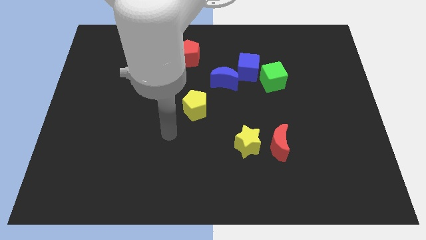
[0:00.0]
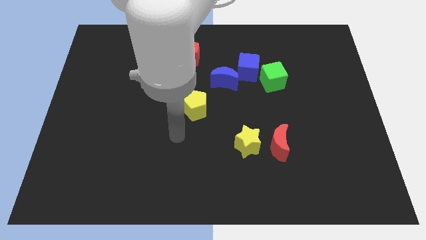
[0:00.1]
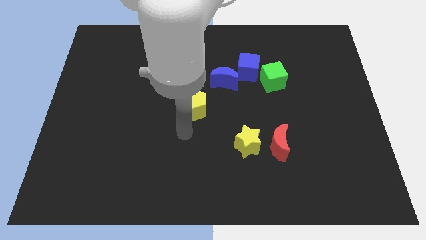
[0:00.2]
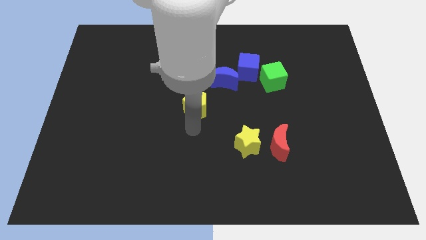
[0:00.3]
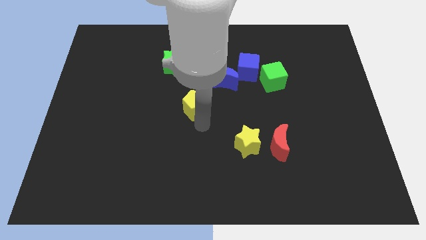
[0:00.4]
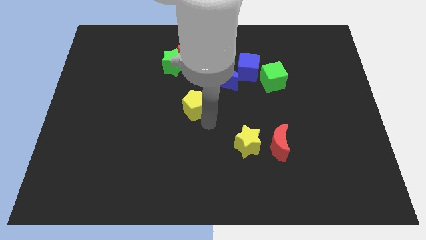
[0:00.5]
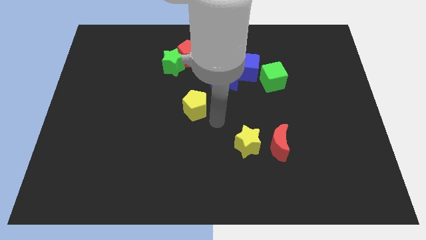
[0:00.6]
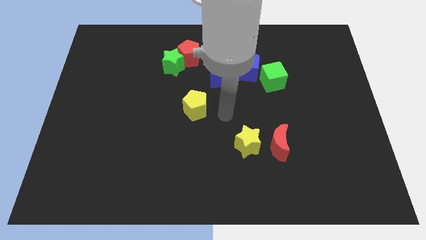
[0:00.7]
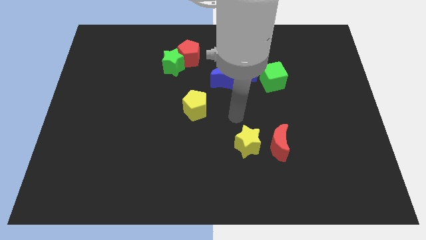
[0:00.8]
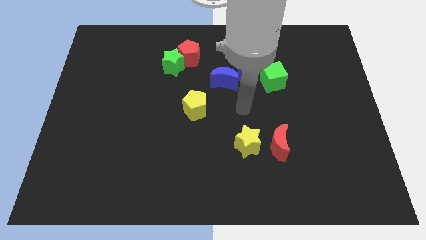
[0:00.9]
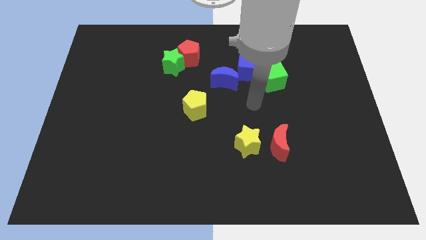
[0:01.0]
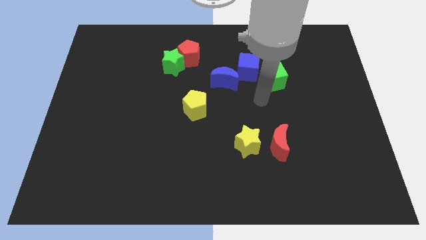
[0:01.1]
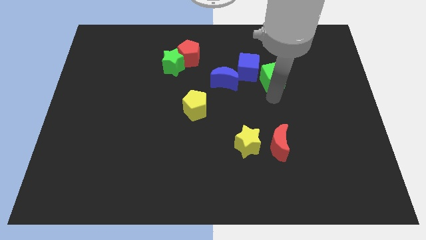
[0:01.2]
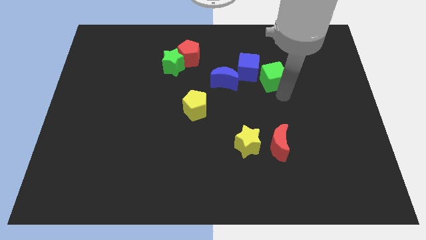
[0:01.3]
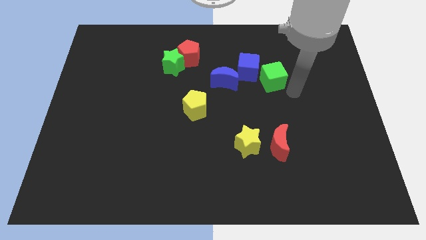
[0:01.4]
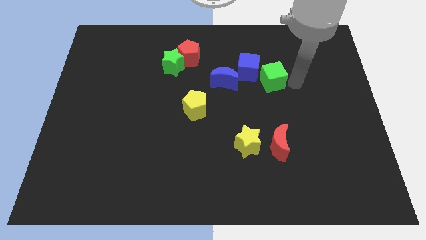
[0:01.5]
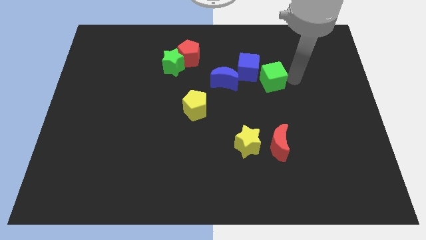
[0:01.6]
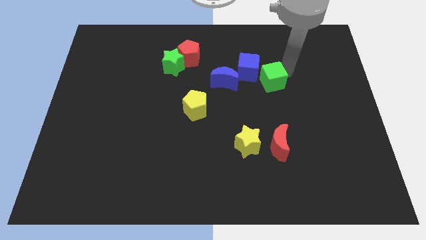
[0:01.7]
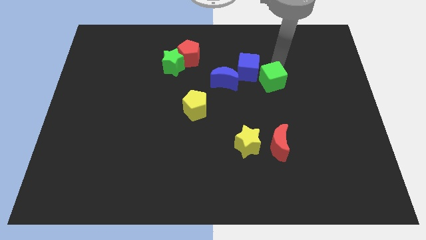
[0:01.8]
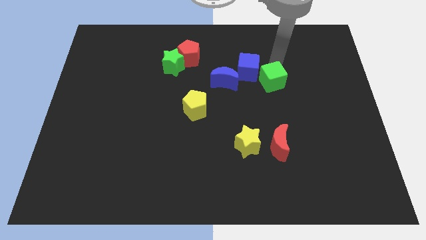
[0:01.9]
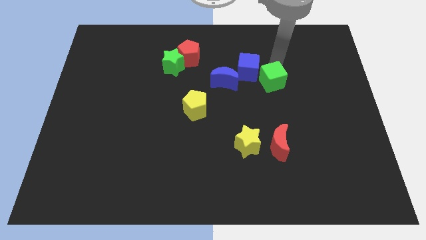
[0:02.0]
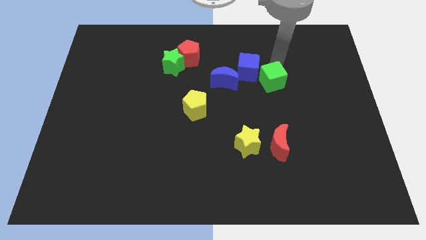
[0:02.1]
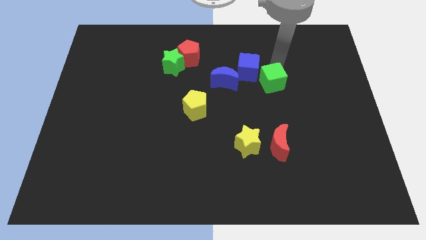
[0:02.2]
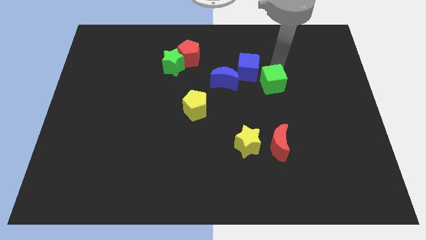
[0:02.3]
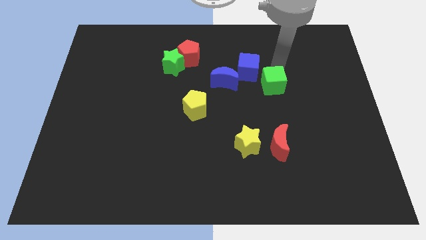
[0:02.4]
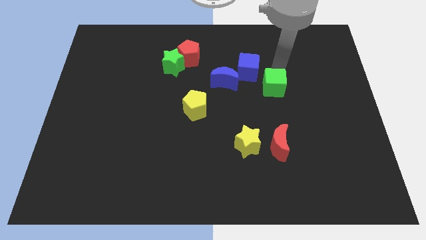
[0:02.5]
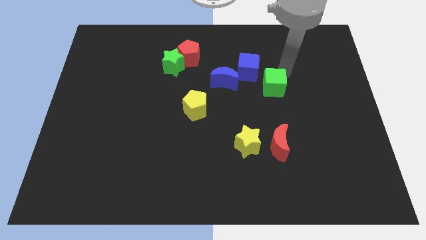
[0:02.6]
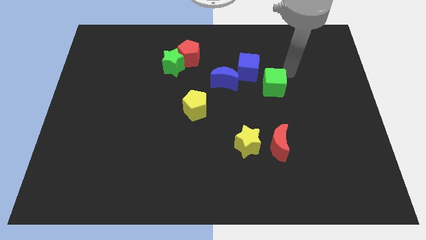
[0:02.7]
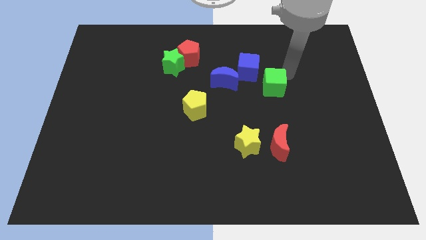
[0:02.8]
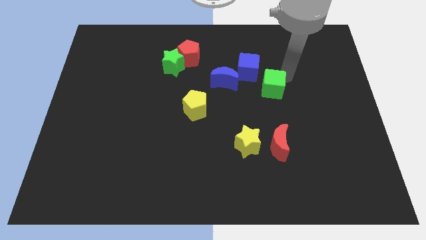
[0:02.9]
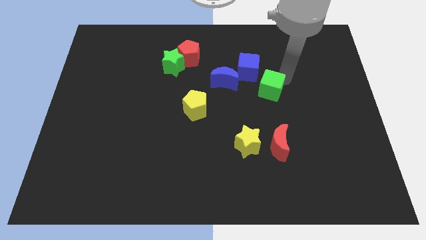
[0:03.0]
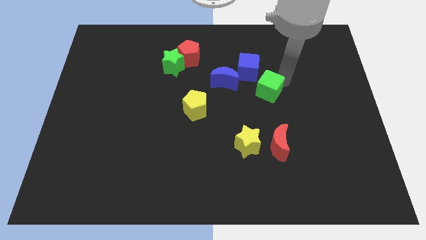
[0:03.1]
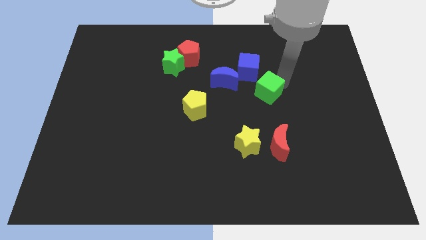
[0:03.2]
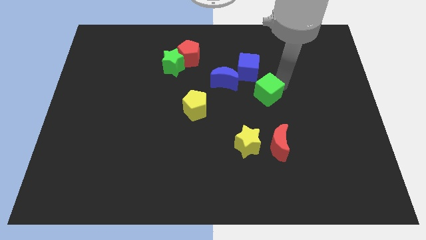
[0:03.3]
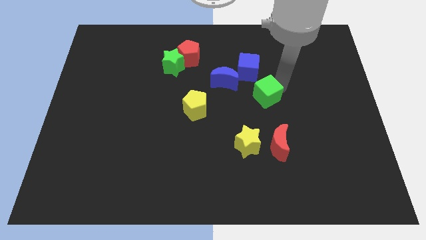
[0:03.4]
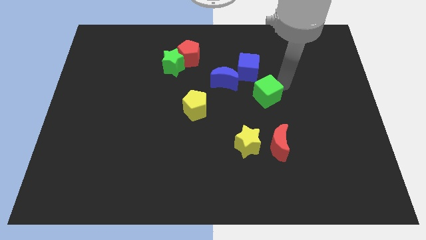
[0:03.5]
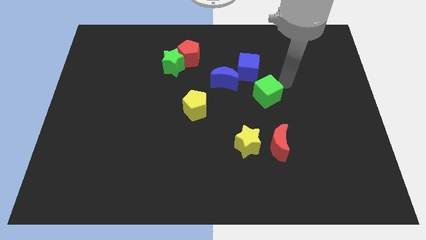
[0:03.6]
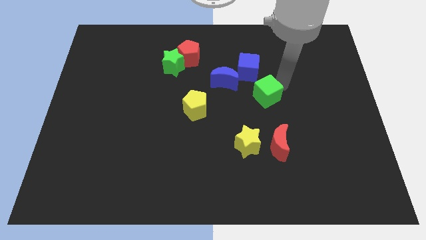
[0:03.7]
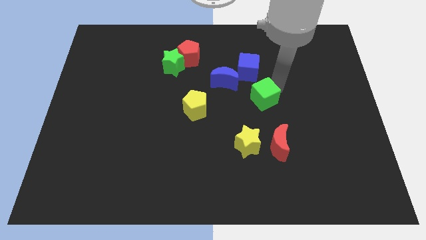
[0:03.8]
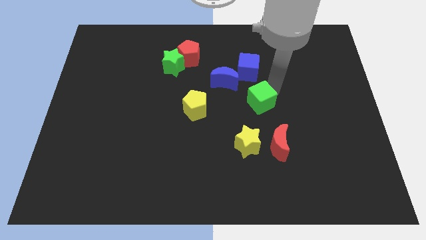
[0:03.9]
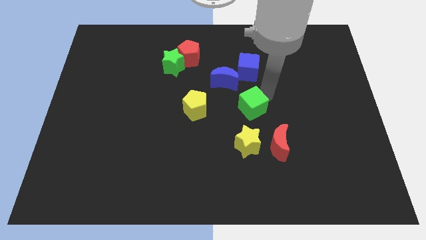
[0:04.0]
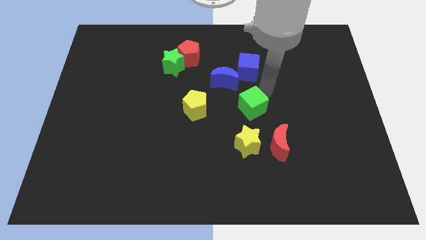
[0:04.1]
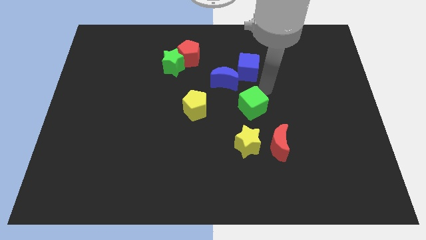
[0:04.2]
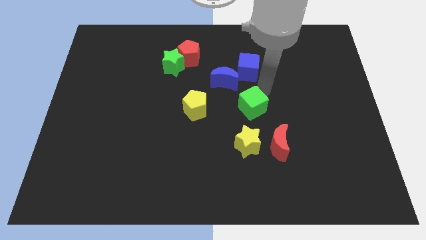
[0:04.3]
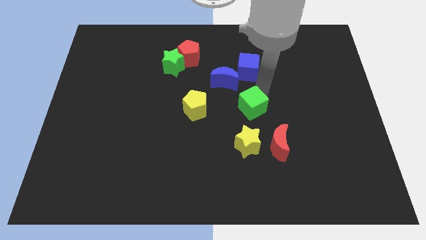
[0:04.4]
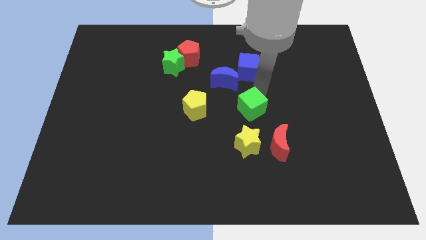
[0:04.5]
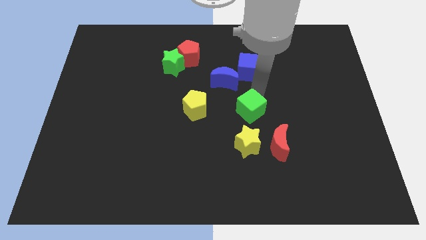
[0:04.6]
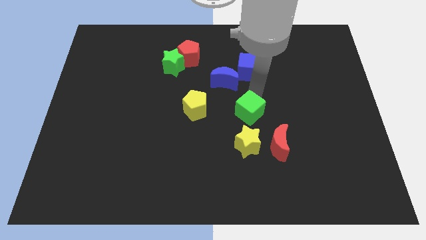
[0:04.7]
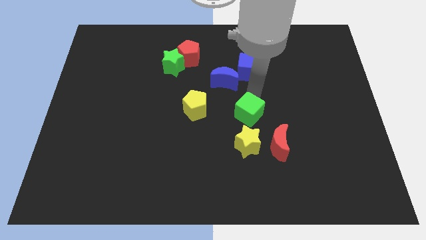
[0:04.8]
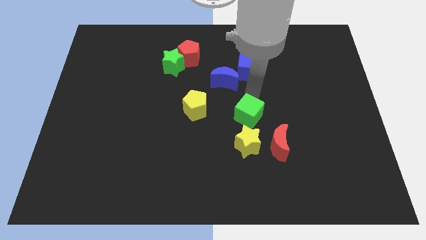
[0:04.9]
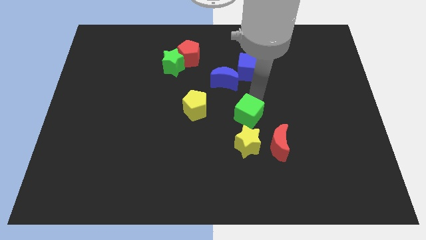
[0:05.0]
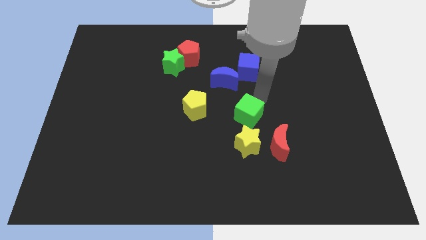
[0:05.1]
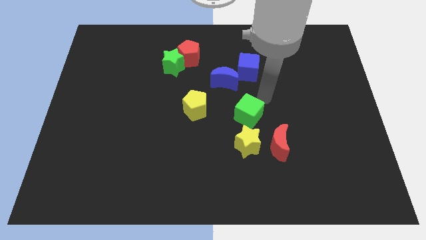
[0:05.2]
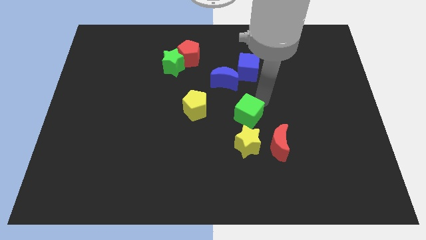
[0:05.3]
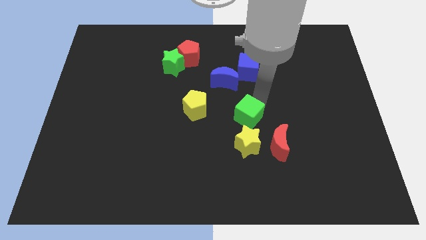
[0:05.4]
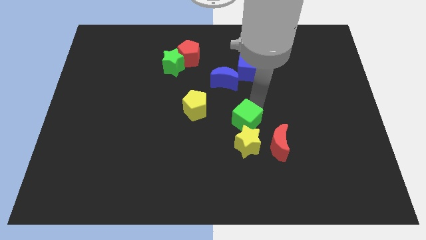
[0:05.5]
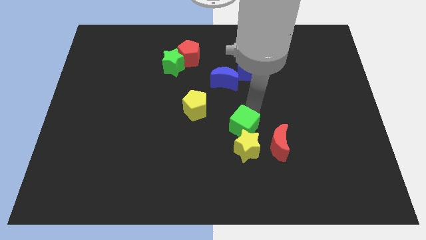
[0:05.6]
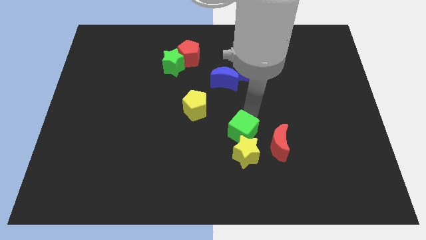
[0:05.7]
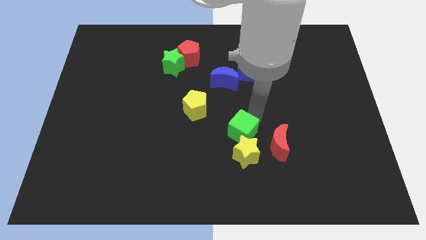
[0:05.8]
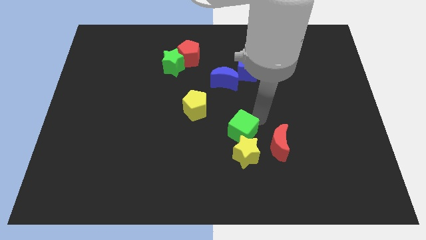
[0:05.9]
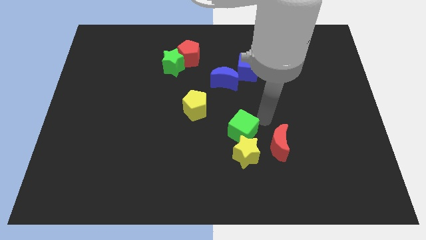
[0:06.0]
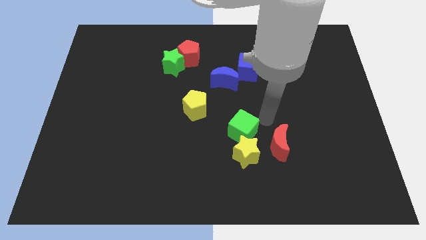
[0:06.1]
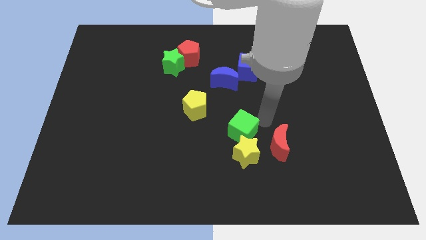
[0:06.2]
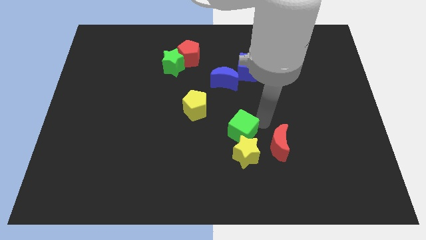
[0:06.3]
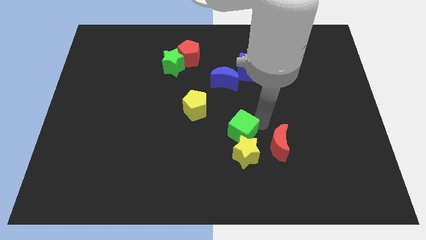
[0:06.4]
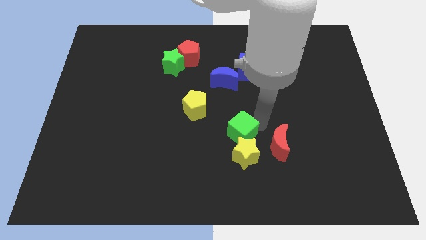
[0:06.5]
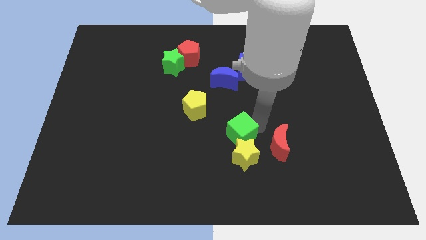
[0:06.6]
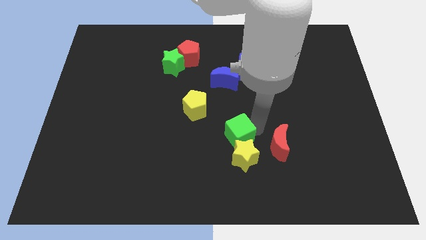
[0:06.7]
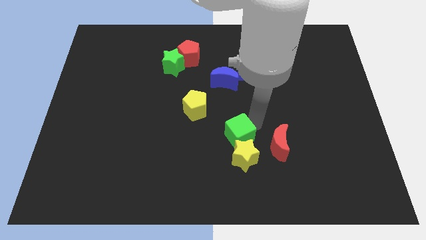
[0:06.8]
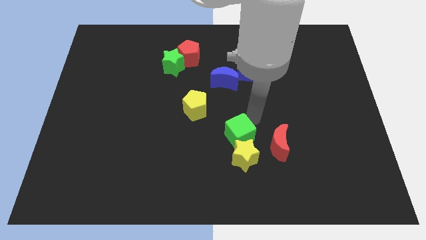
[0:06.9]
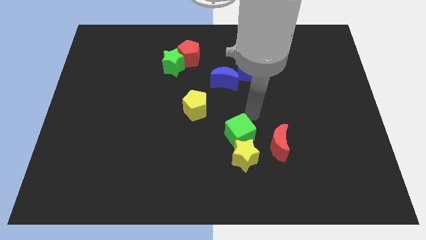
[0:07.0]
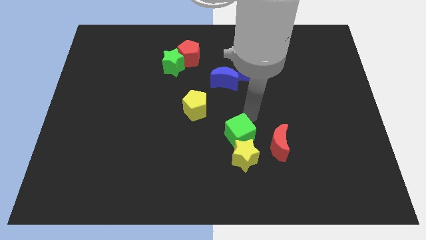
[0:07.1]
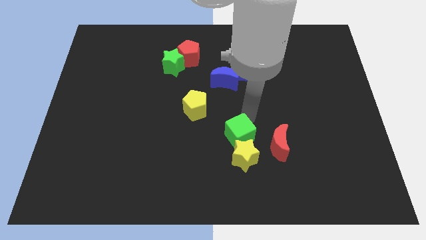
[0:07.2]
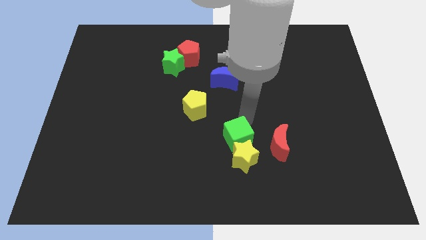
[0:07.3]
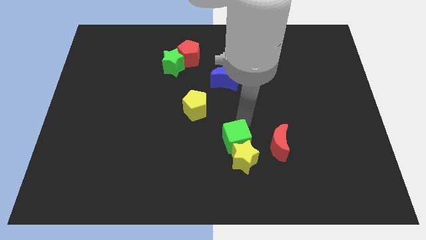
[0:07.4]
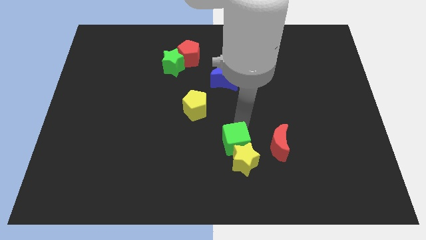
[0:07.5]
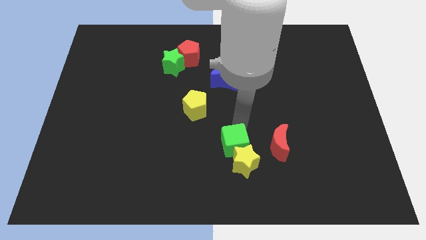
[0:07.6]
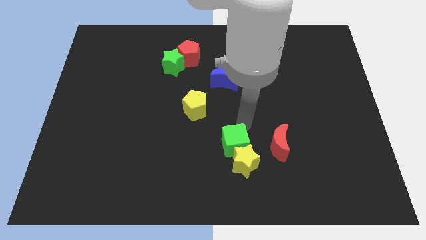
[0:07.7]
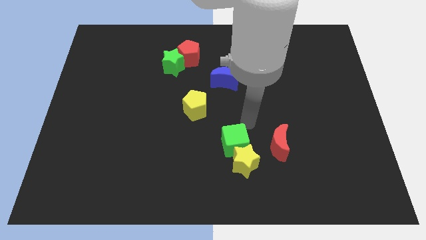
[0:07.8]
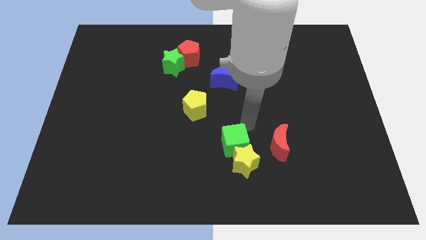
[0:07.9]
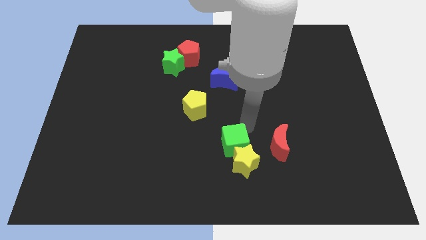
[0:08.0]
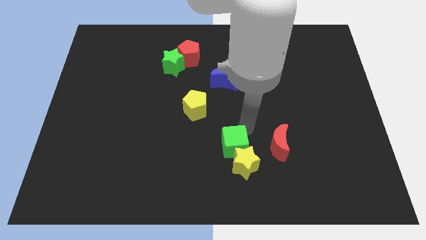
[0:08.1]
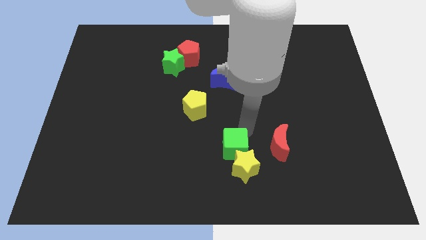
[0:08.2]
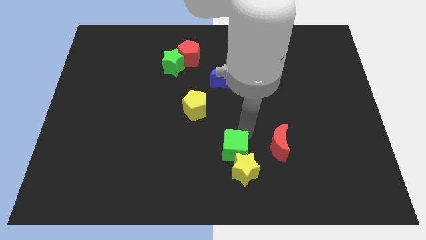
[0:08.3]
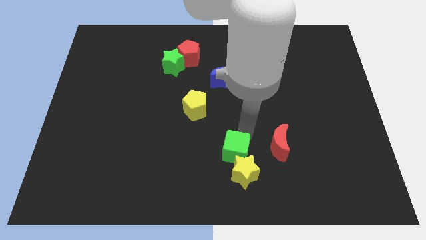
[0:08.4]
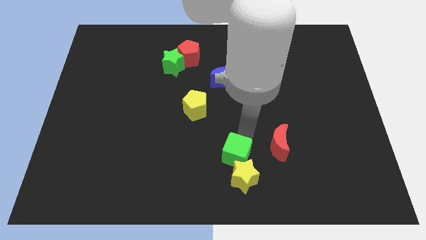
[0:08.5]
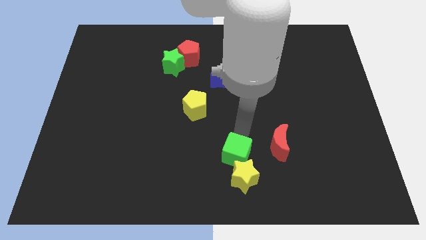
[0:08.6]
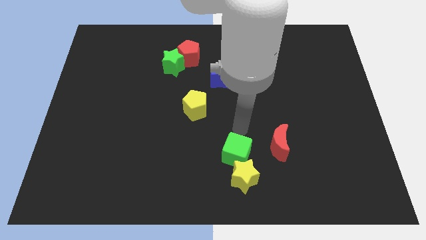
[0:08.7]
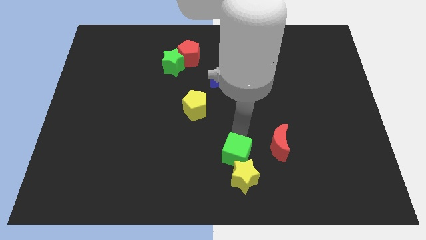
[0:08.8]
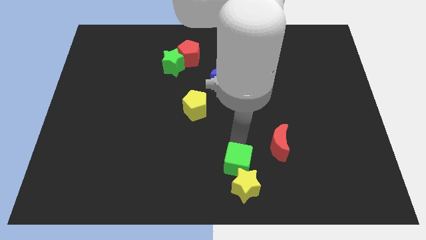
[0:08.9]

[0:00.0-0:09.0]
move the green cube to the bottom
